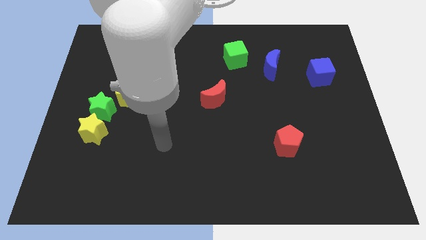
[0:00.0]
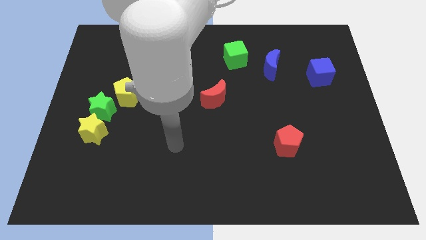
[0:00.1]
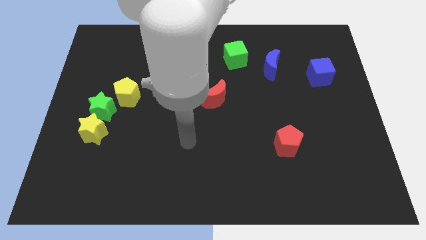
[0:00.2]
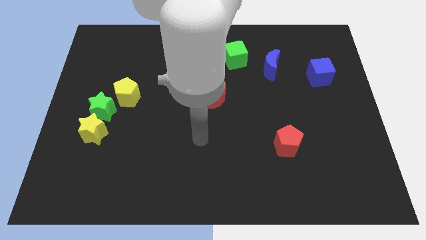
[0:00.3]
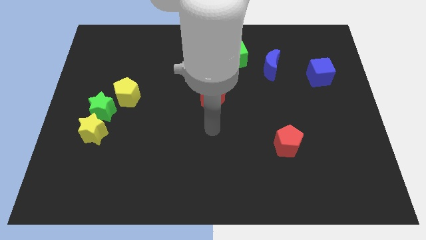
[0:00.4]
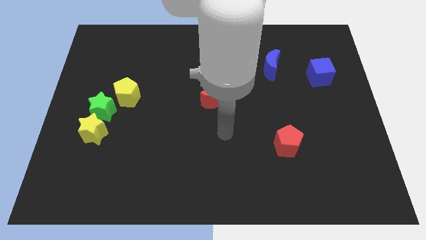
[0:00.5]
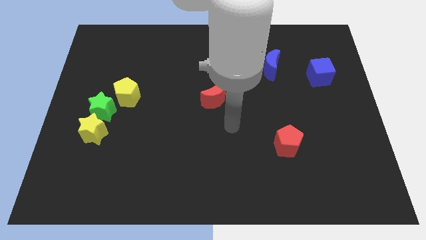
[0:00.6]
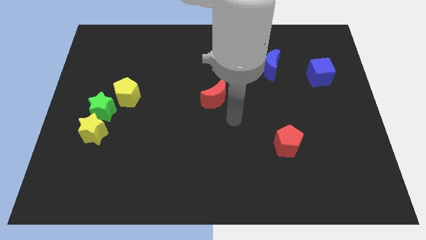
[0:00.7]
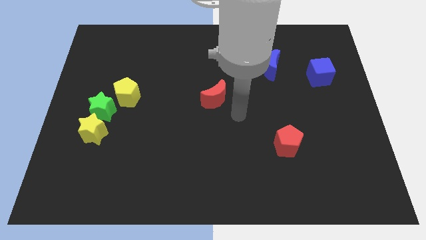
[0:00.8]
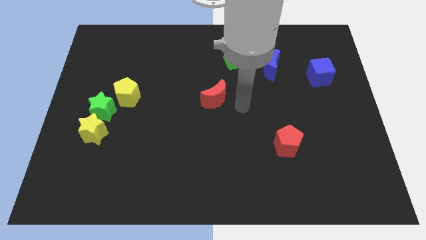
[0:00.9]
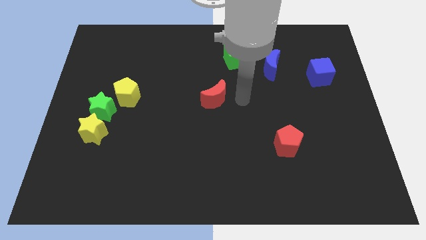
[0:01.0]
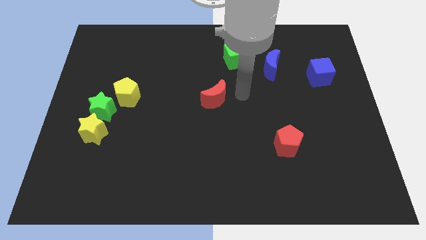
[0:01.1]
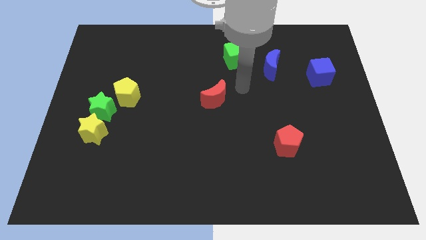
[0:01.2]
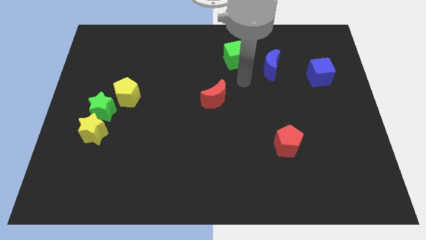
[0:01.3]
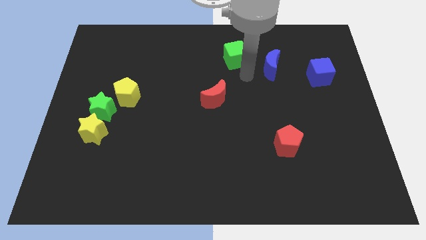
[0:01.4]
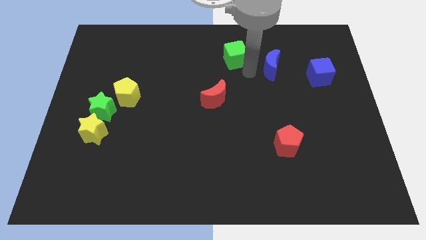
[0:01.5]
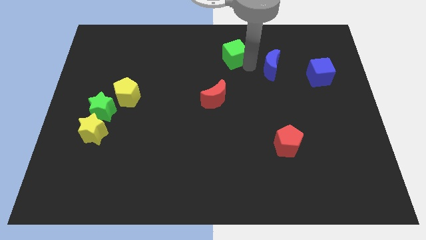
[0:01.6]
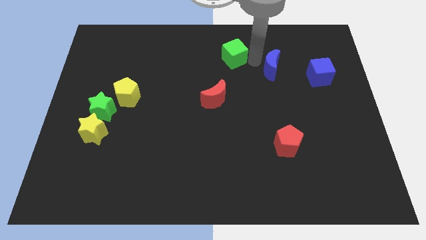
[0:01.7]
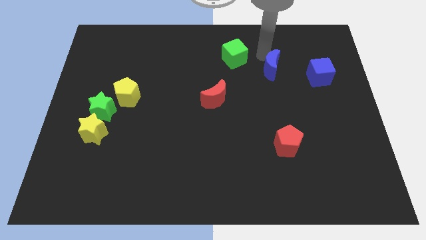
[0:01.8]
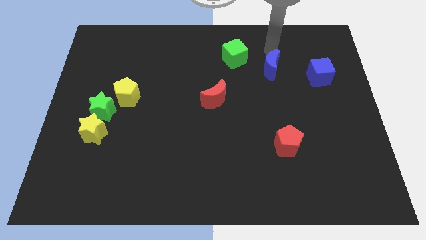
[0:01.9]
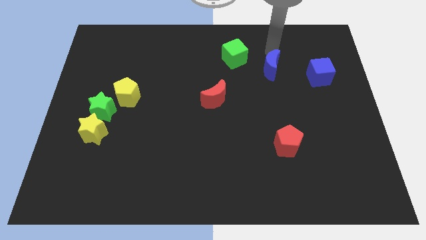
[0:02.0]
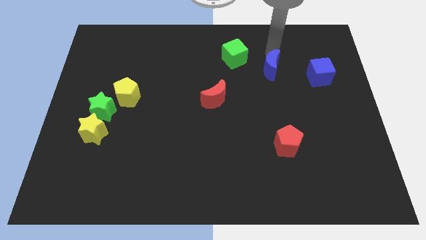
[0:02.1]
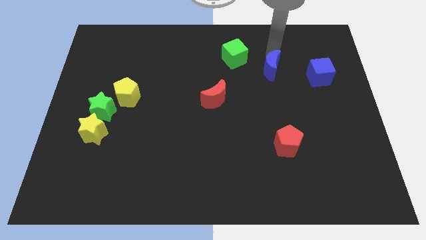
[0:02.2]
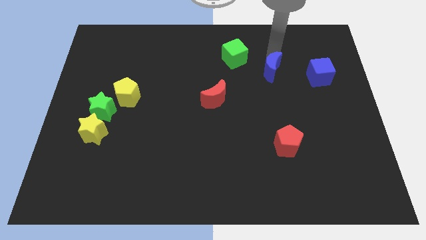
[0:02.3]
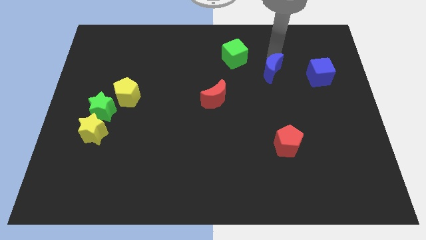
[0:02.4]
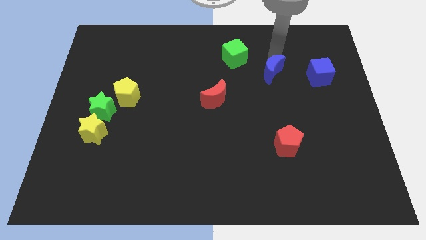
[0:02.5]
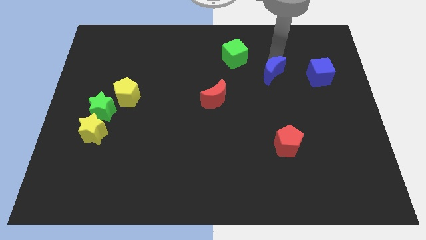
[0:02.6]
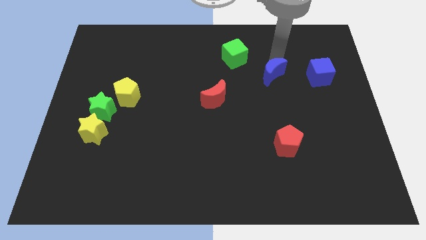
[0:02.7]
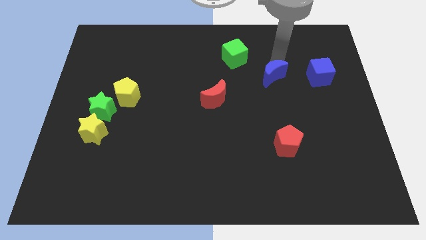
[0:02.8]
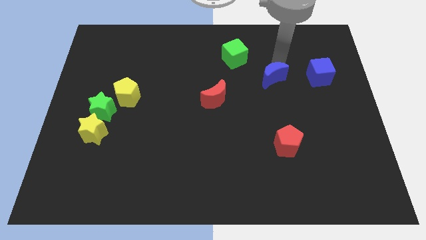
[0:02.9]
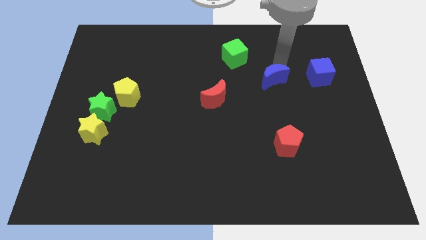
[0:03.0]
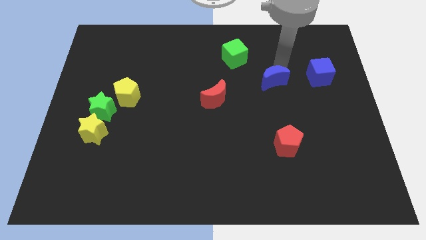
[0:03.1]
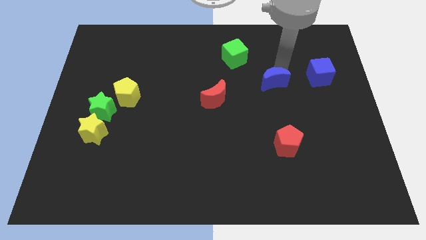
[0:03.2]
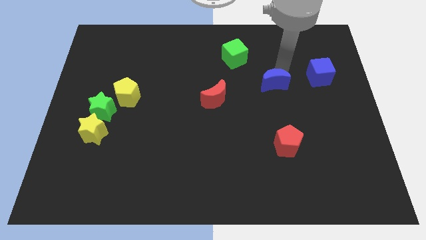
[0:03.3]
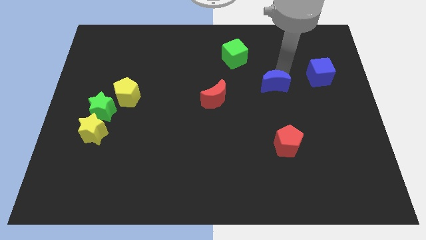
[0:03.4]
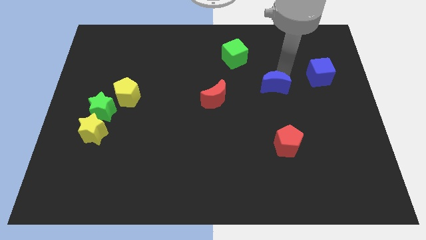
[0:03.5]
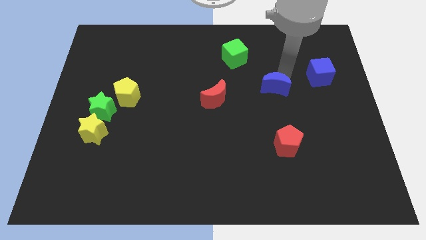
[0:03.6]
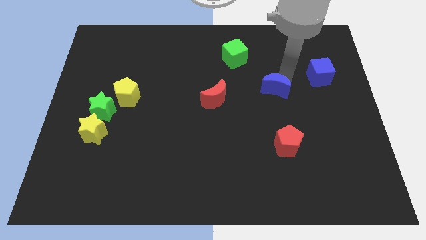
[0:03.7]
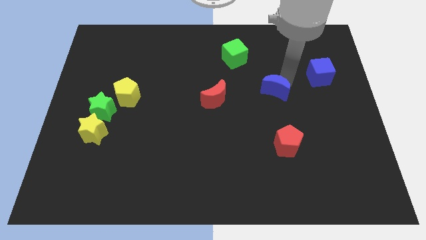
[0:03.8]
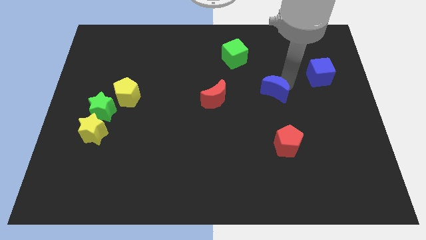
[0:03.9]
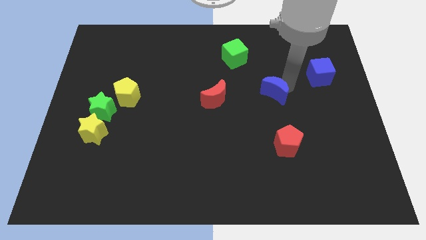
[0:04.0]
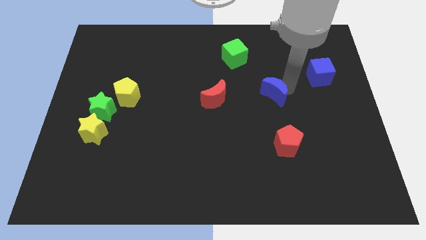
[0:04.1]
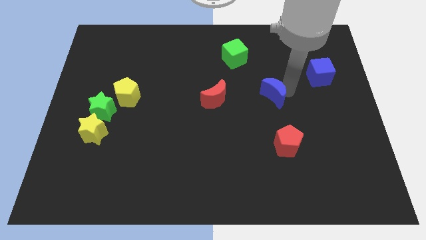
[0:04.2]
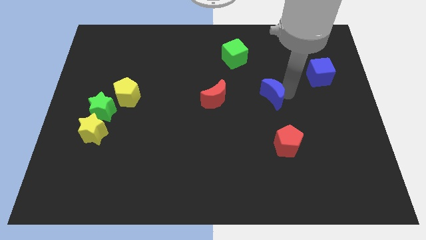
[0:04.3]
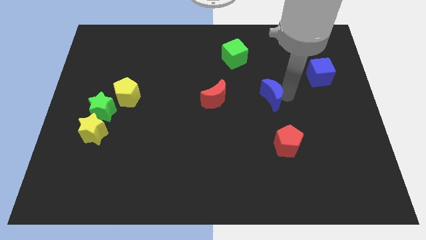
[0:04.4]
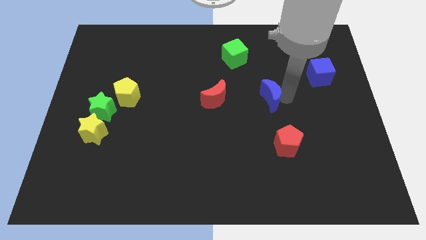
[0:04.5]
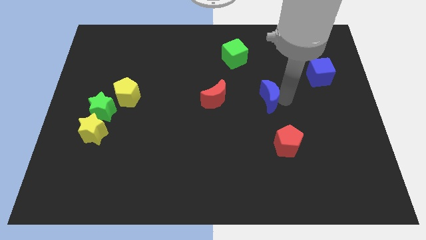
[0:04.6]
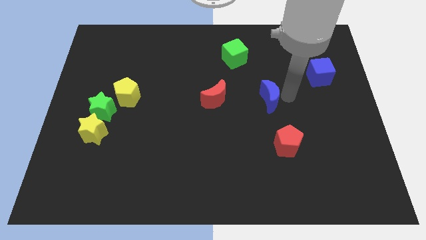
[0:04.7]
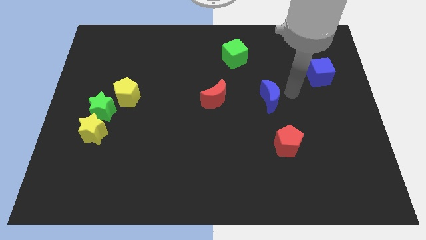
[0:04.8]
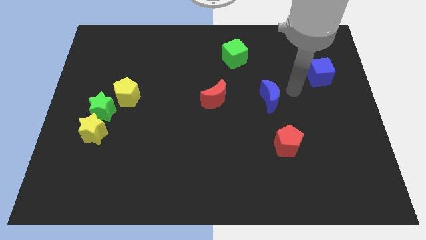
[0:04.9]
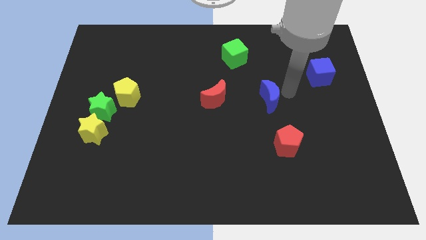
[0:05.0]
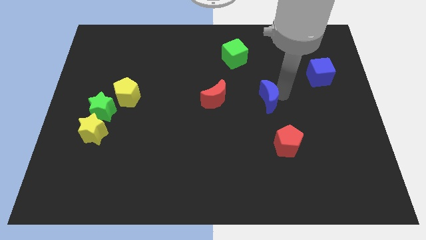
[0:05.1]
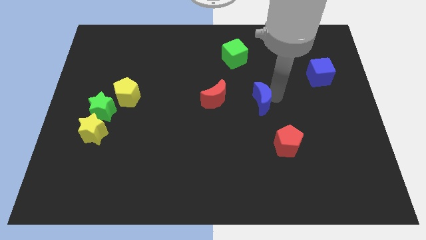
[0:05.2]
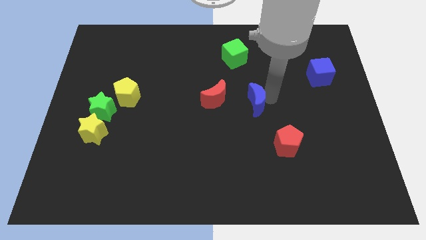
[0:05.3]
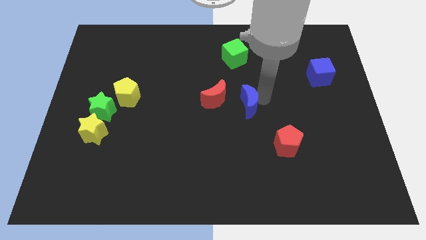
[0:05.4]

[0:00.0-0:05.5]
put the blue moon diagonally down and to the right of the red moon

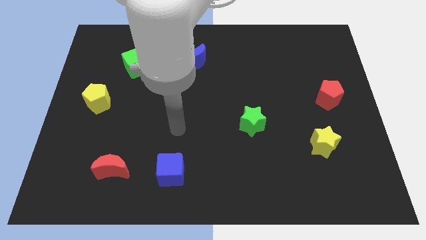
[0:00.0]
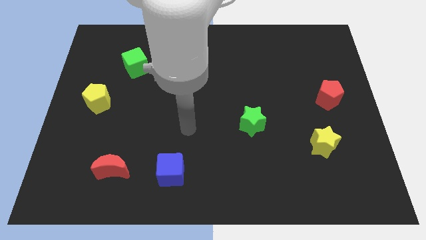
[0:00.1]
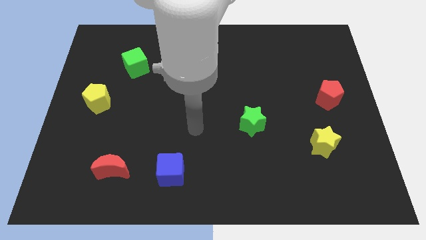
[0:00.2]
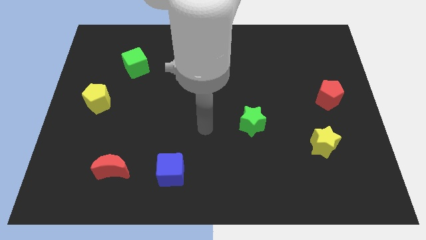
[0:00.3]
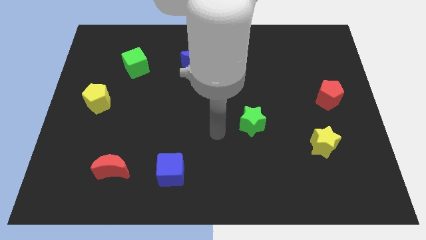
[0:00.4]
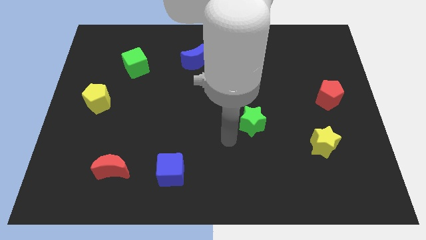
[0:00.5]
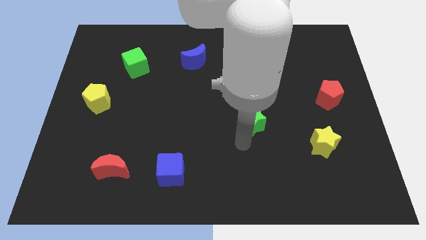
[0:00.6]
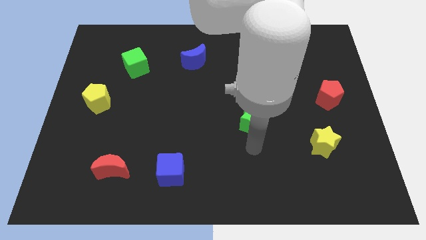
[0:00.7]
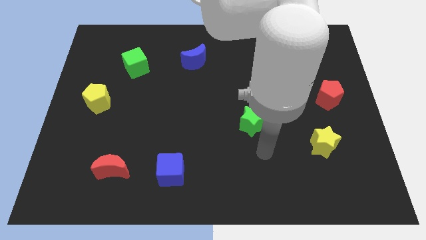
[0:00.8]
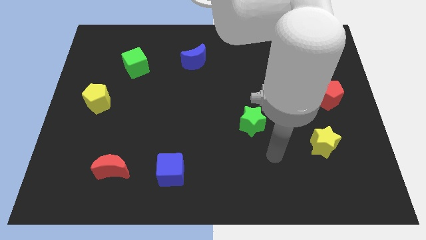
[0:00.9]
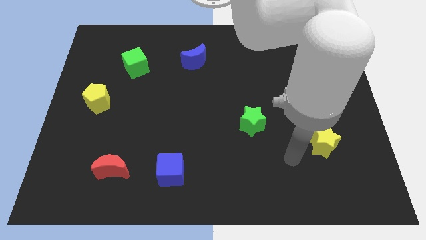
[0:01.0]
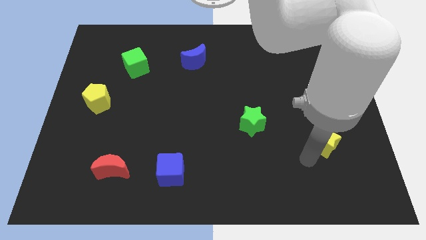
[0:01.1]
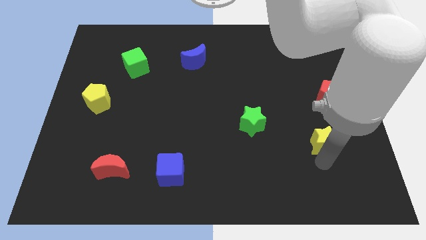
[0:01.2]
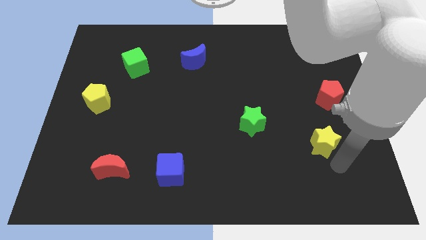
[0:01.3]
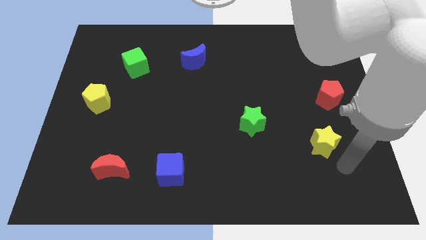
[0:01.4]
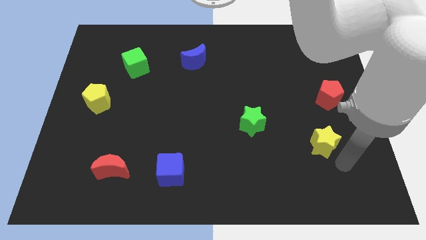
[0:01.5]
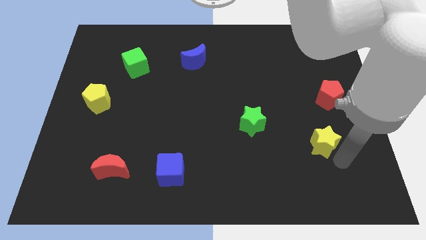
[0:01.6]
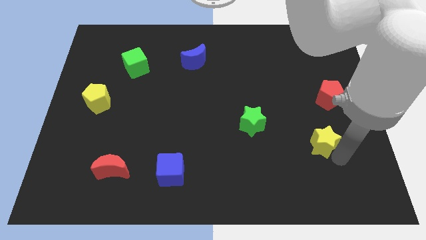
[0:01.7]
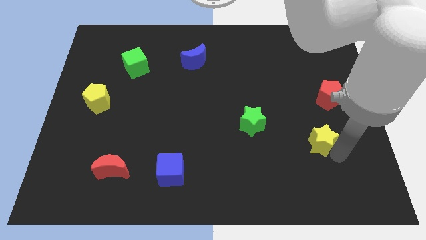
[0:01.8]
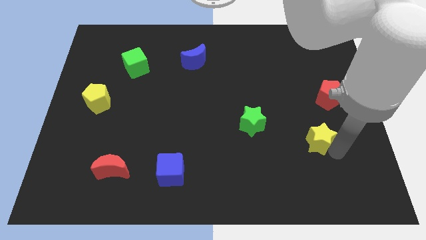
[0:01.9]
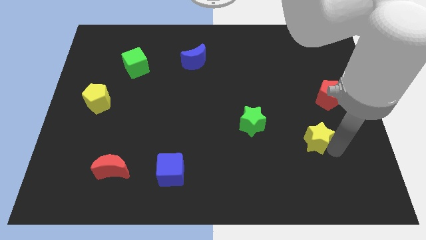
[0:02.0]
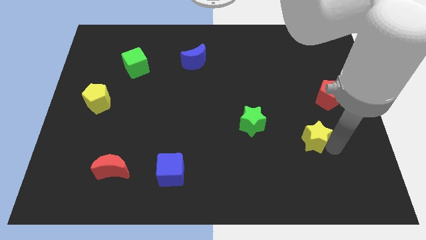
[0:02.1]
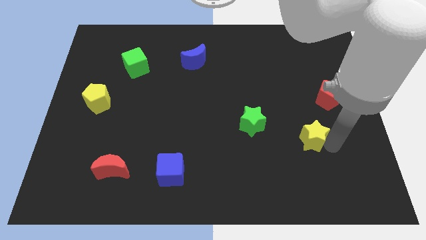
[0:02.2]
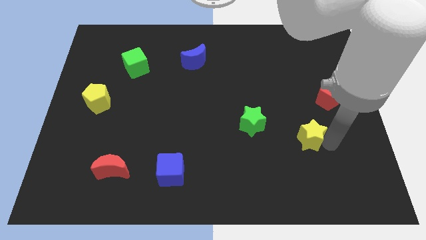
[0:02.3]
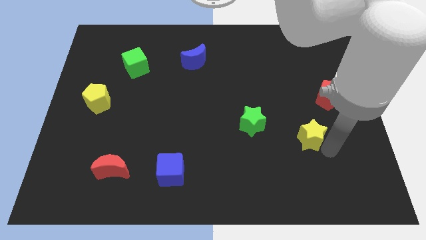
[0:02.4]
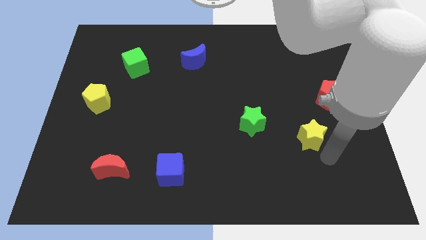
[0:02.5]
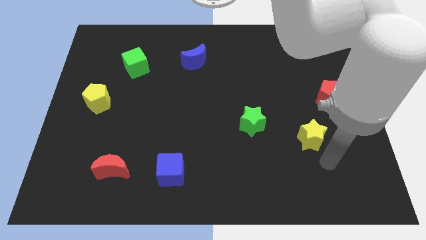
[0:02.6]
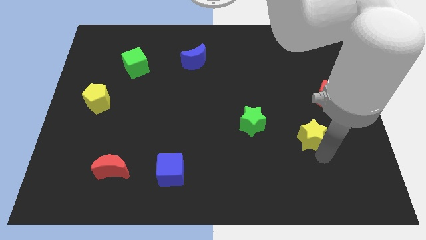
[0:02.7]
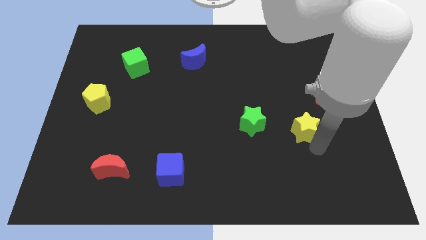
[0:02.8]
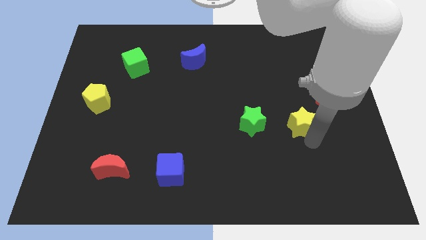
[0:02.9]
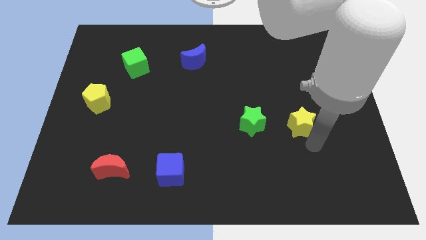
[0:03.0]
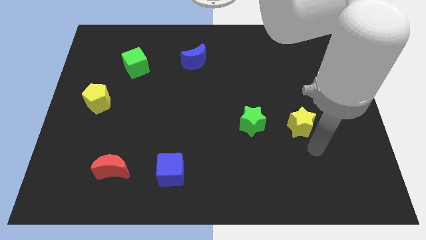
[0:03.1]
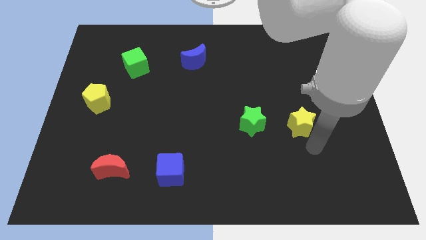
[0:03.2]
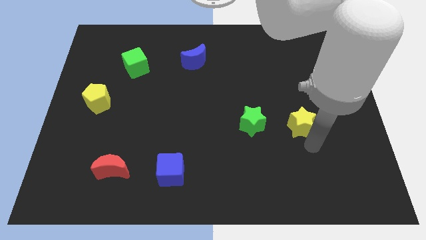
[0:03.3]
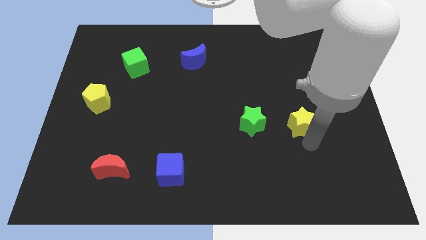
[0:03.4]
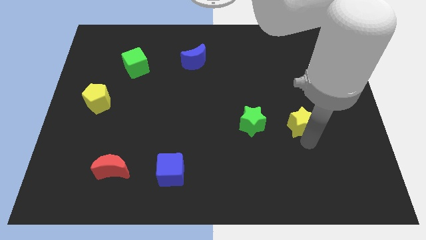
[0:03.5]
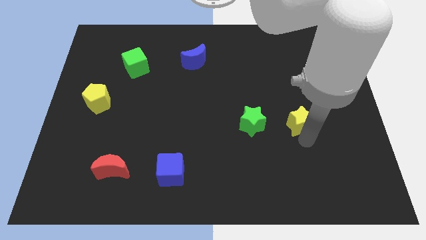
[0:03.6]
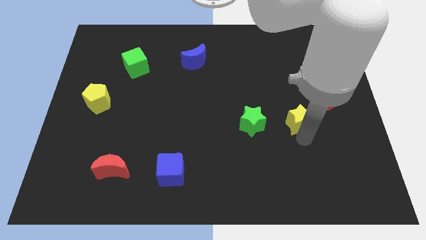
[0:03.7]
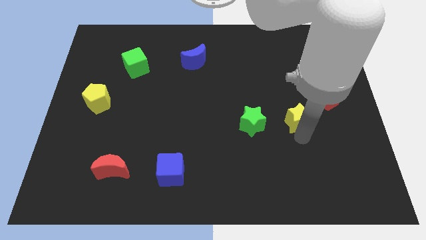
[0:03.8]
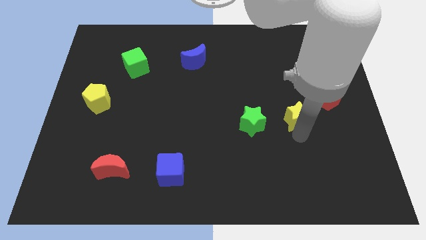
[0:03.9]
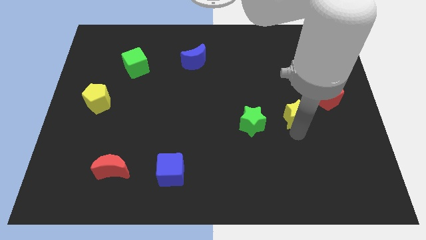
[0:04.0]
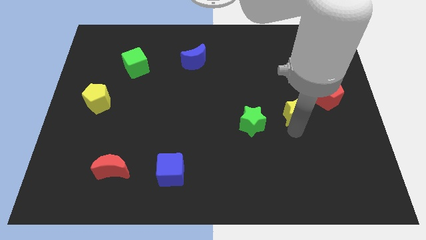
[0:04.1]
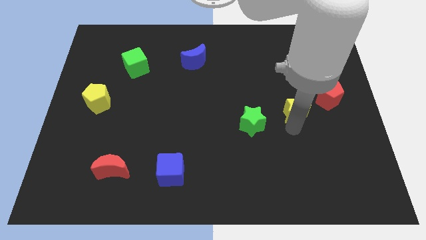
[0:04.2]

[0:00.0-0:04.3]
put the yellow star to the left side of the red pentagon
